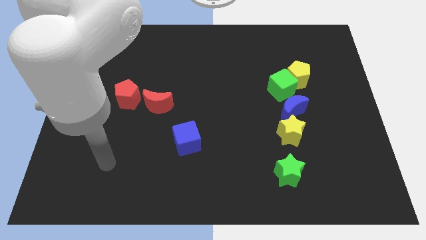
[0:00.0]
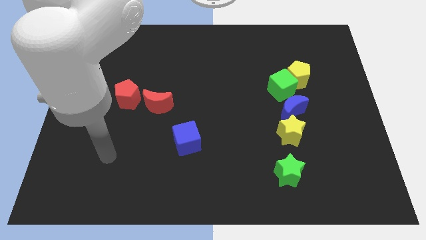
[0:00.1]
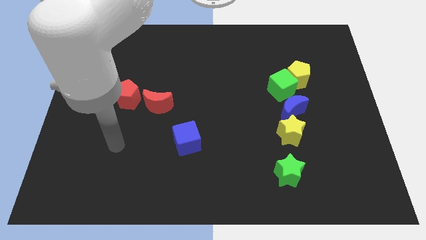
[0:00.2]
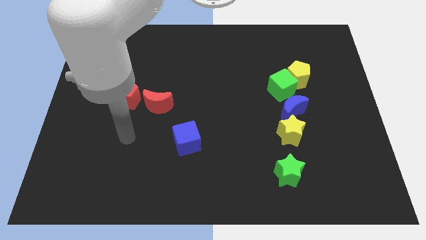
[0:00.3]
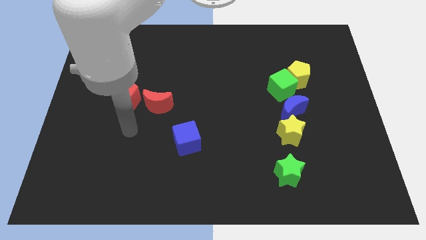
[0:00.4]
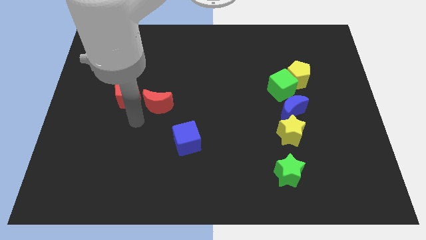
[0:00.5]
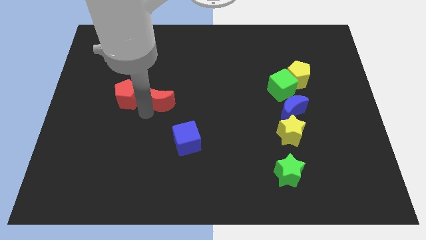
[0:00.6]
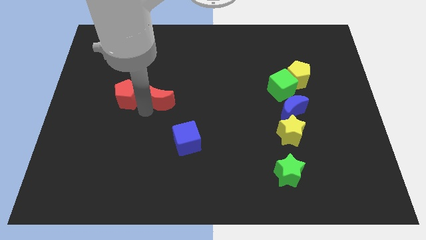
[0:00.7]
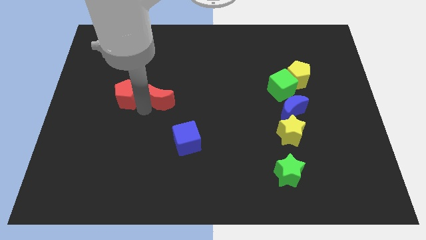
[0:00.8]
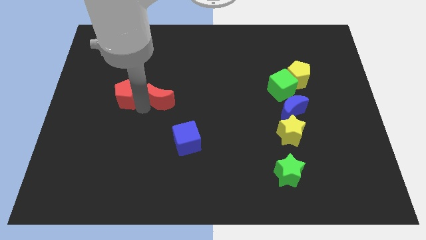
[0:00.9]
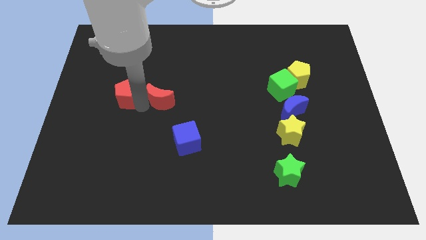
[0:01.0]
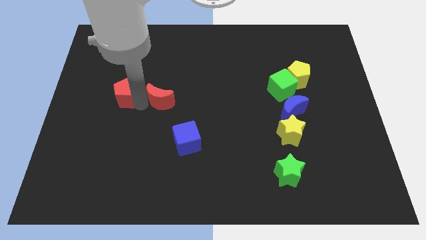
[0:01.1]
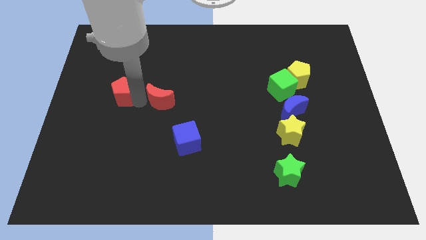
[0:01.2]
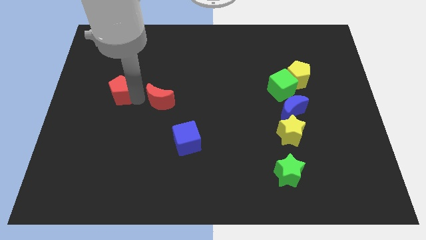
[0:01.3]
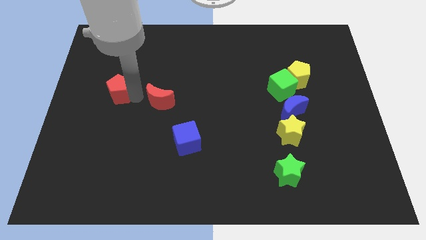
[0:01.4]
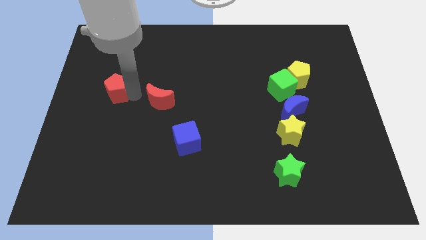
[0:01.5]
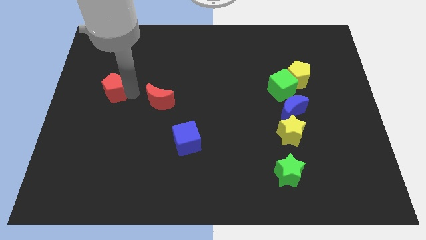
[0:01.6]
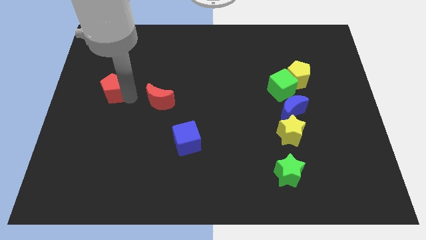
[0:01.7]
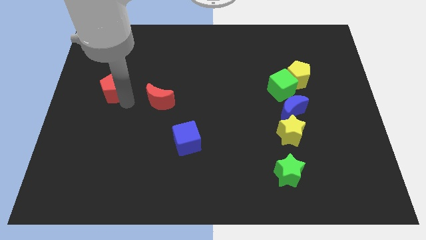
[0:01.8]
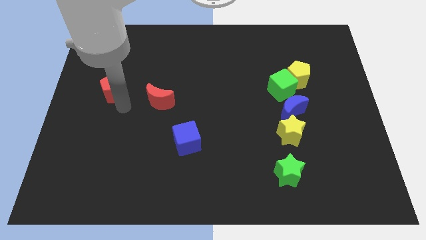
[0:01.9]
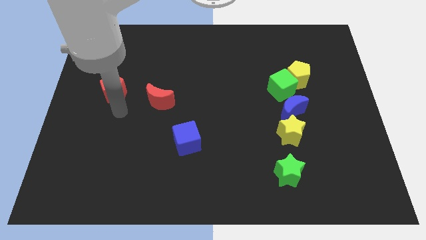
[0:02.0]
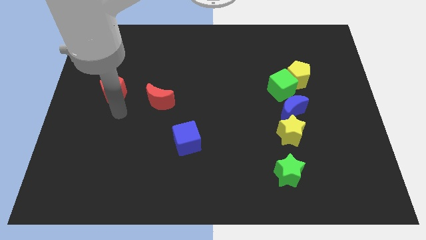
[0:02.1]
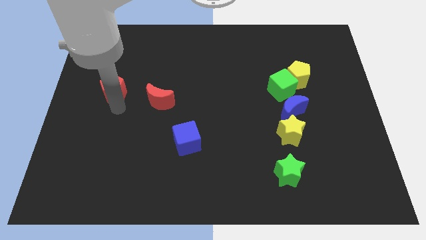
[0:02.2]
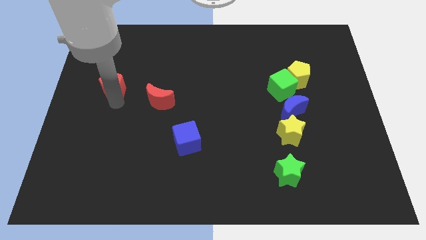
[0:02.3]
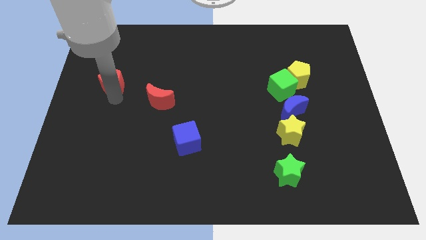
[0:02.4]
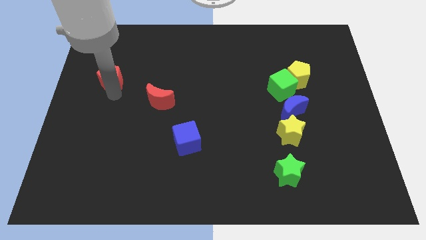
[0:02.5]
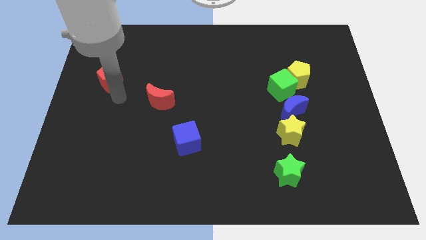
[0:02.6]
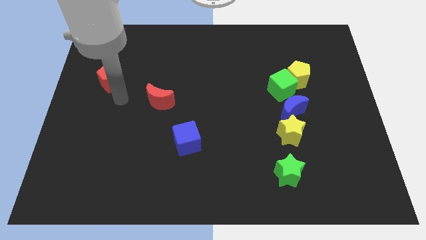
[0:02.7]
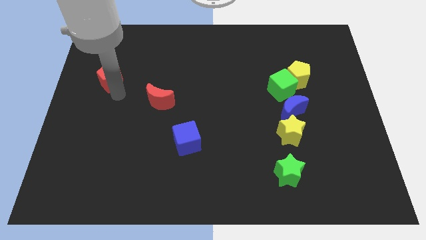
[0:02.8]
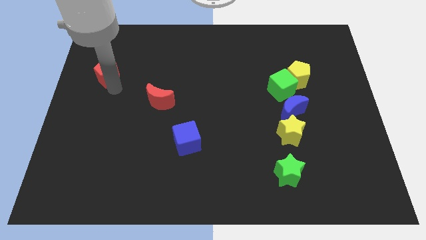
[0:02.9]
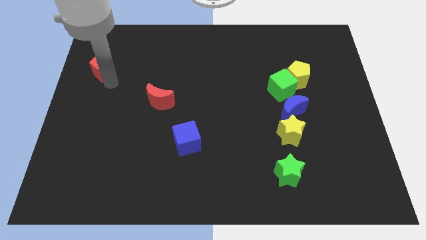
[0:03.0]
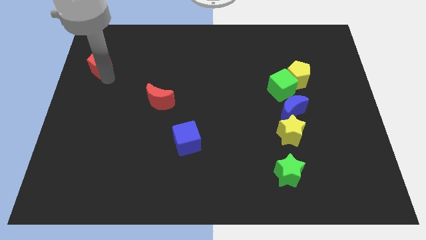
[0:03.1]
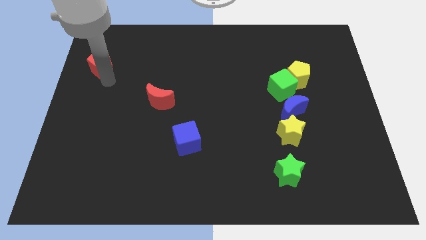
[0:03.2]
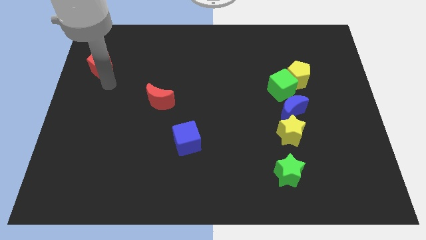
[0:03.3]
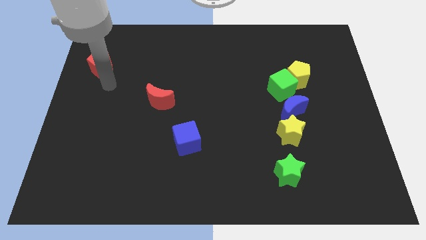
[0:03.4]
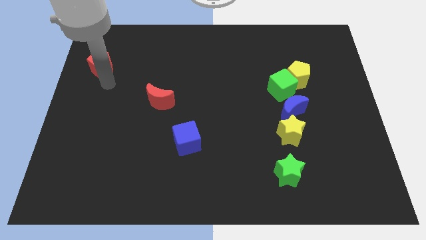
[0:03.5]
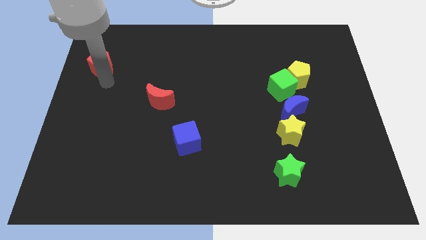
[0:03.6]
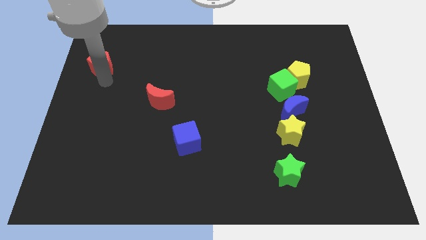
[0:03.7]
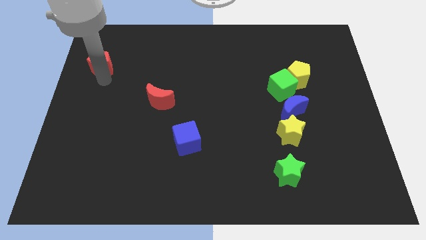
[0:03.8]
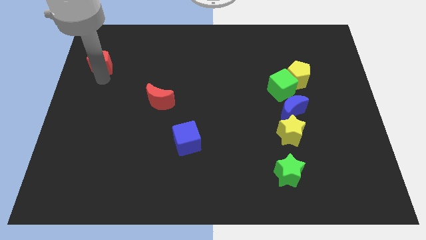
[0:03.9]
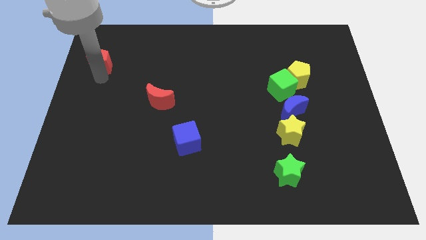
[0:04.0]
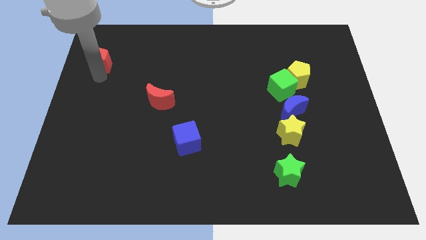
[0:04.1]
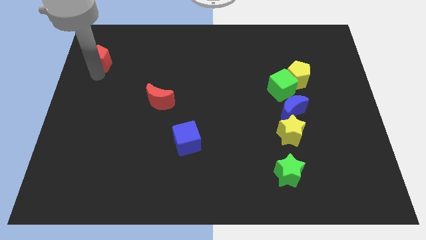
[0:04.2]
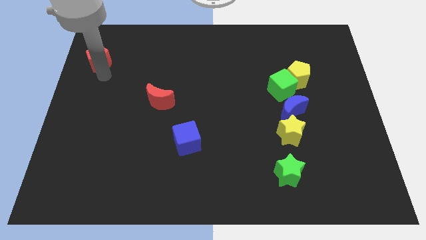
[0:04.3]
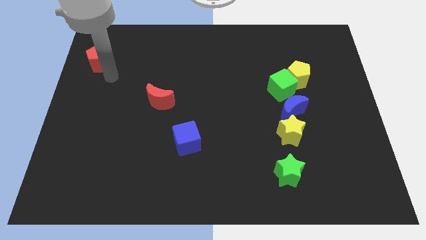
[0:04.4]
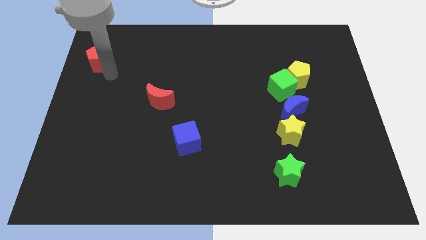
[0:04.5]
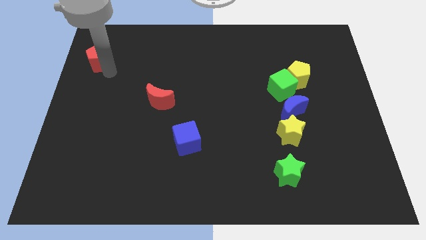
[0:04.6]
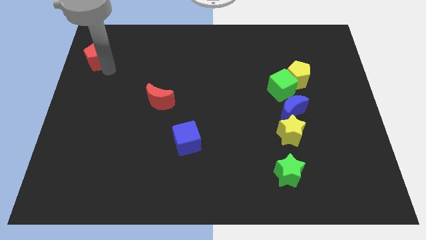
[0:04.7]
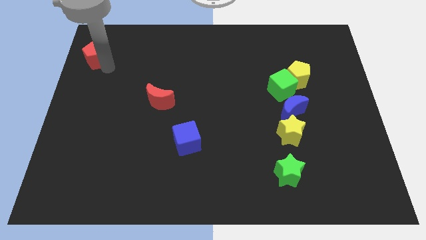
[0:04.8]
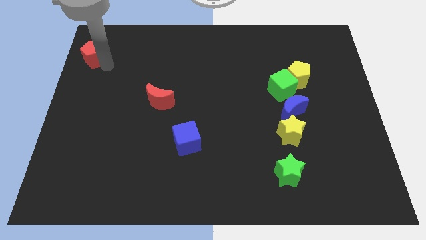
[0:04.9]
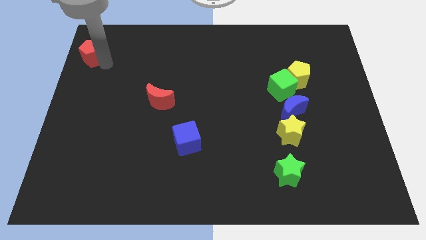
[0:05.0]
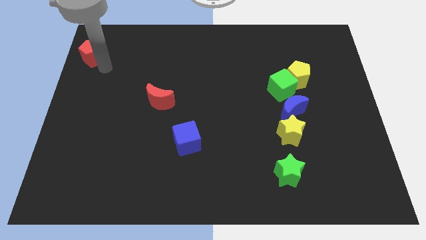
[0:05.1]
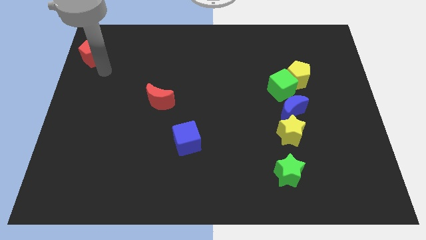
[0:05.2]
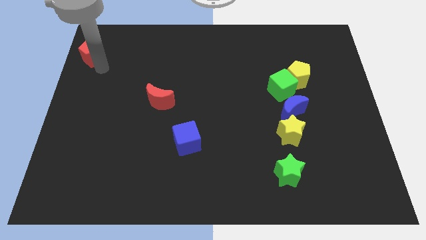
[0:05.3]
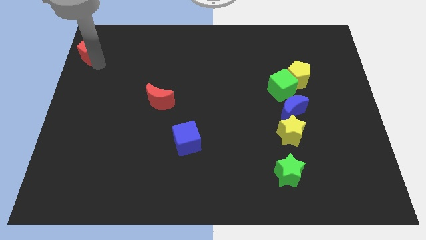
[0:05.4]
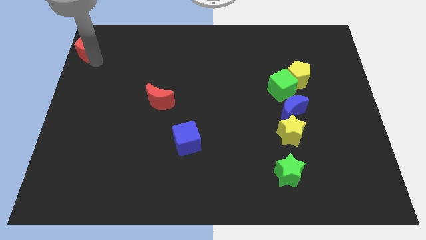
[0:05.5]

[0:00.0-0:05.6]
push the red pentagon to the upper left corner

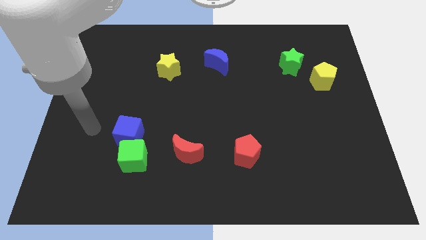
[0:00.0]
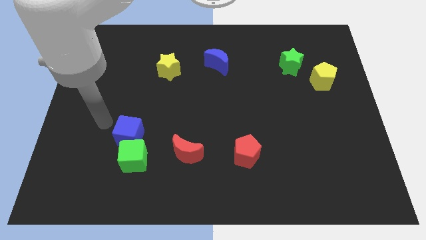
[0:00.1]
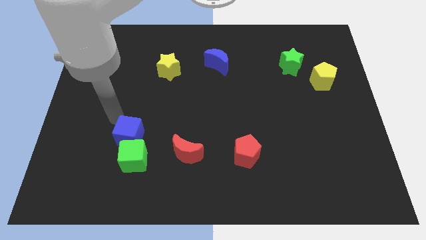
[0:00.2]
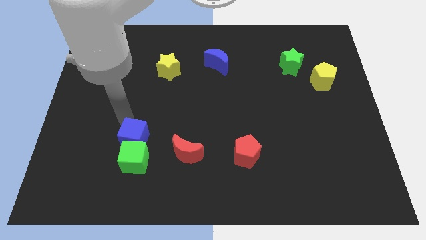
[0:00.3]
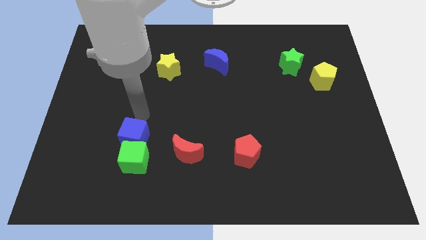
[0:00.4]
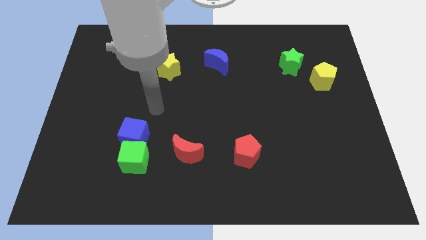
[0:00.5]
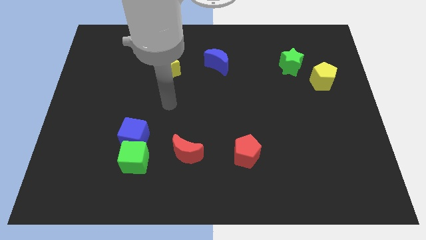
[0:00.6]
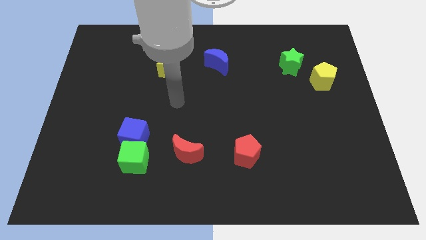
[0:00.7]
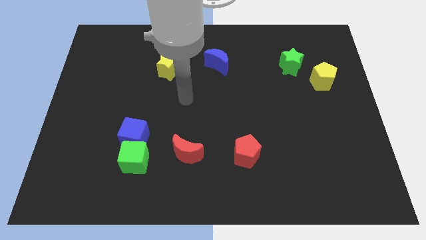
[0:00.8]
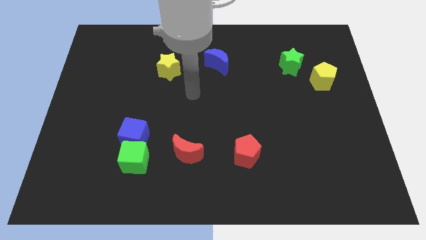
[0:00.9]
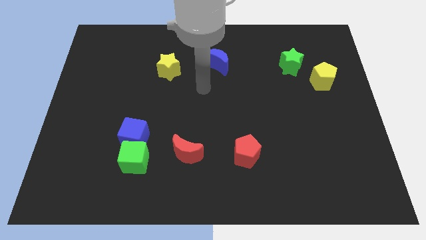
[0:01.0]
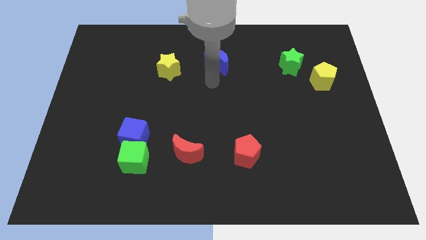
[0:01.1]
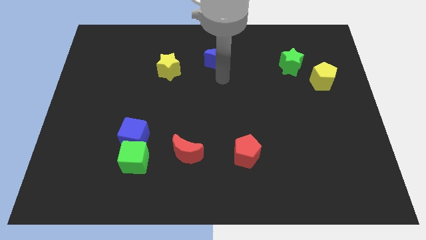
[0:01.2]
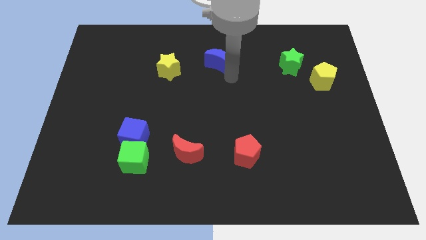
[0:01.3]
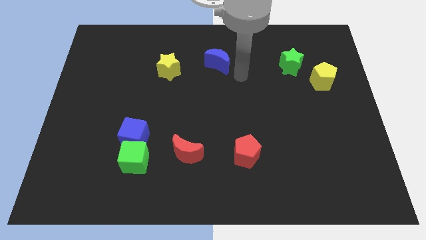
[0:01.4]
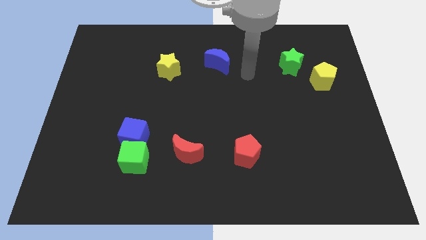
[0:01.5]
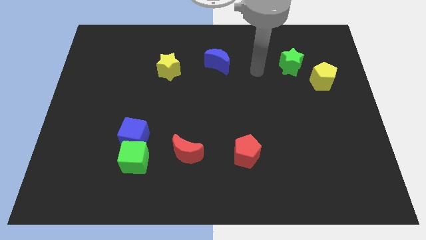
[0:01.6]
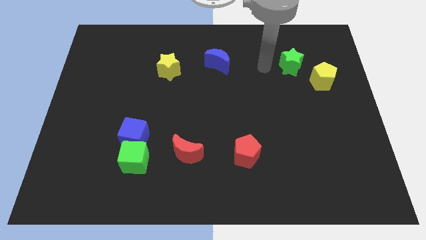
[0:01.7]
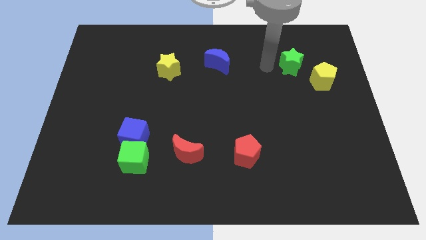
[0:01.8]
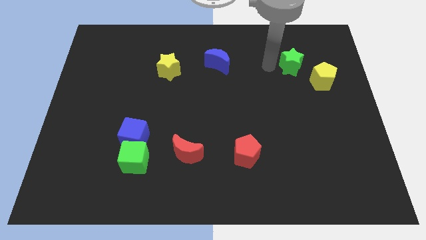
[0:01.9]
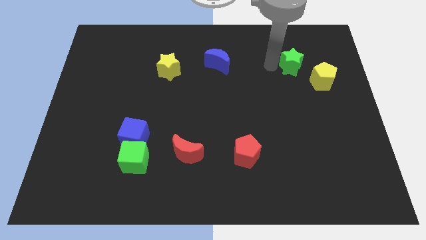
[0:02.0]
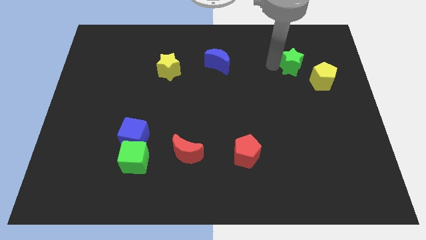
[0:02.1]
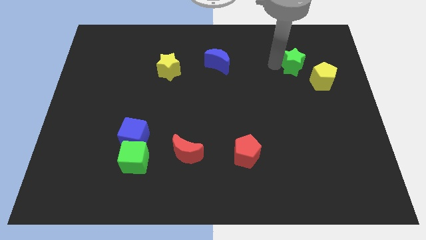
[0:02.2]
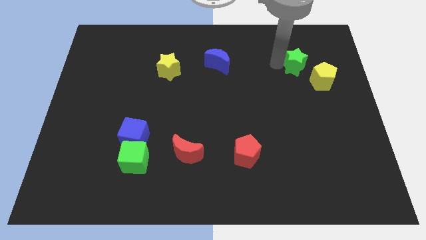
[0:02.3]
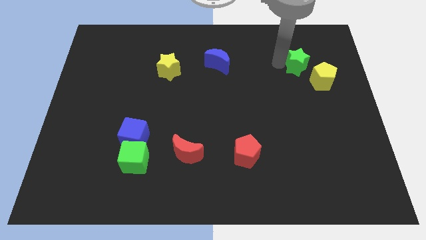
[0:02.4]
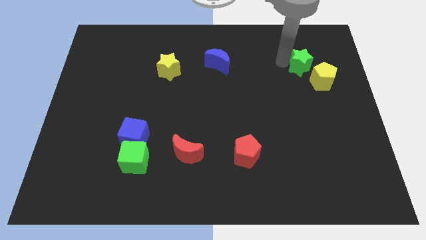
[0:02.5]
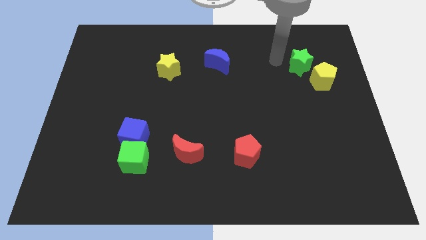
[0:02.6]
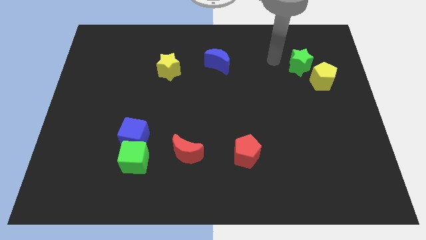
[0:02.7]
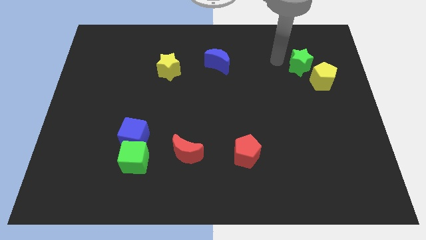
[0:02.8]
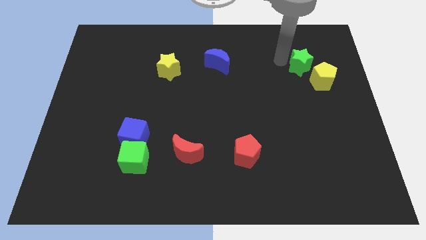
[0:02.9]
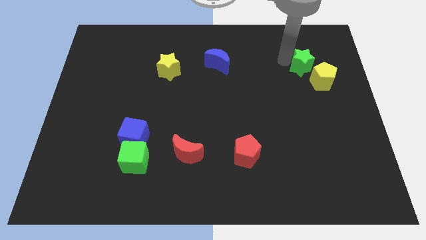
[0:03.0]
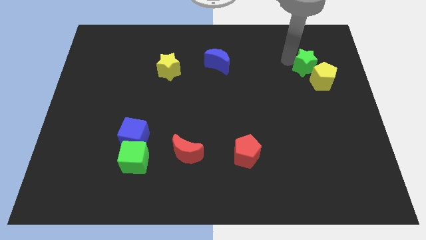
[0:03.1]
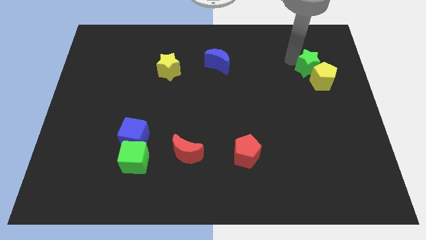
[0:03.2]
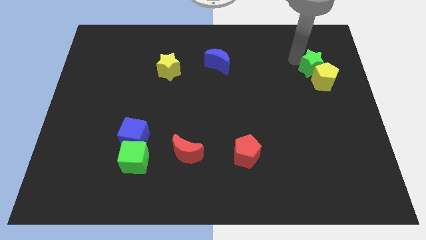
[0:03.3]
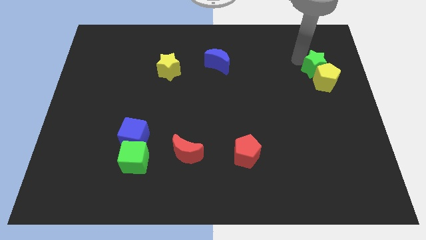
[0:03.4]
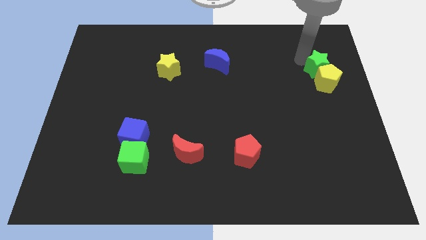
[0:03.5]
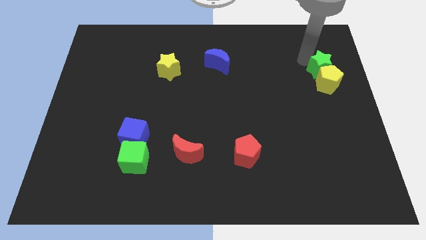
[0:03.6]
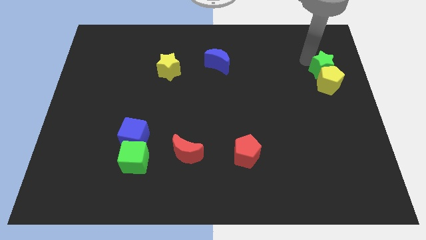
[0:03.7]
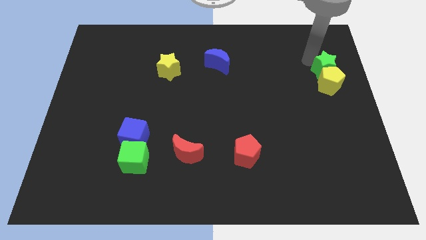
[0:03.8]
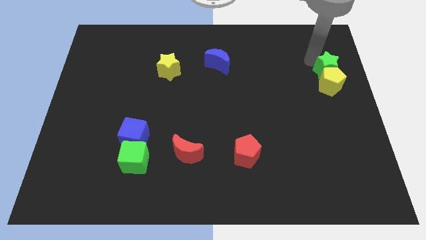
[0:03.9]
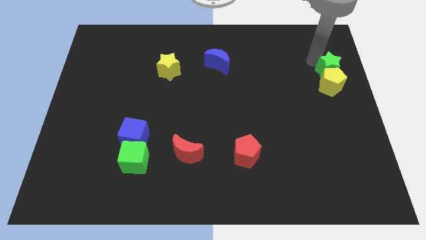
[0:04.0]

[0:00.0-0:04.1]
move the green star to the center right
